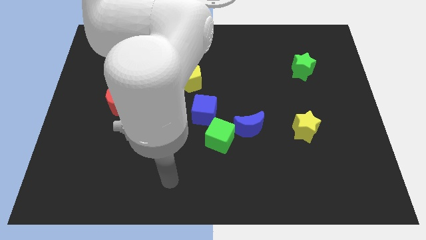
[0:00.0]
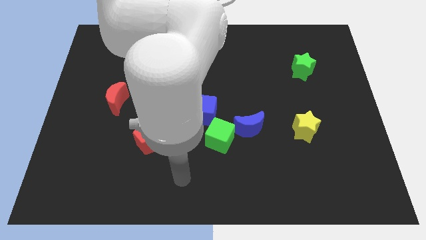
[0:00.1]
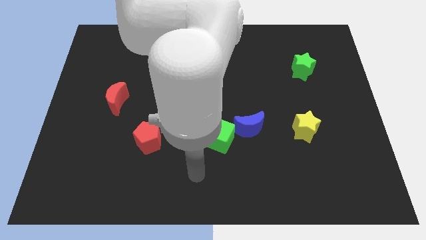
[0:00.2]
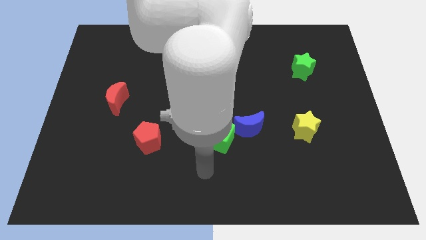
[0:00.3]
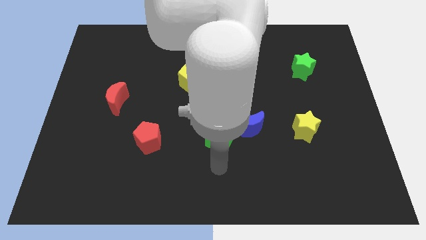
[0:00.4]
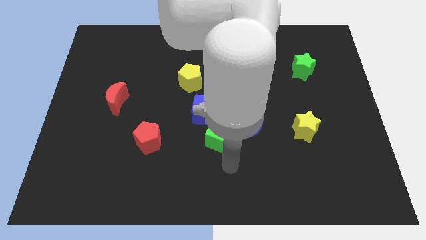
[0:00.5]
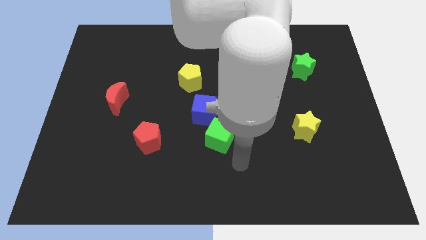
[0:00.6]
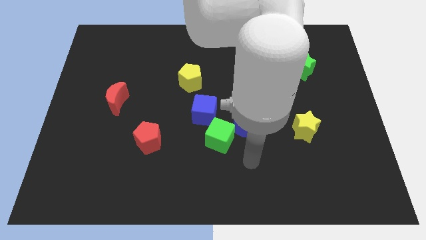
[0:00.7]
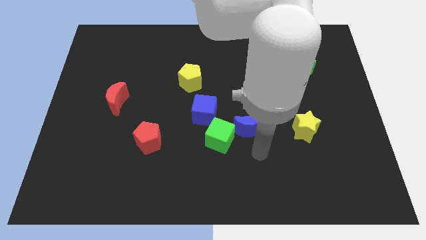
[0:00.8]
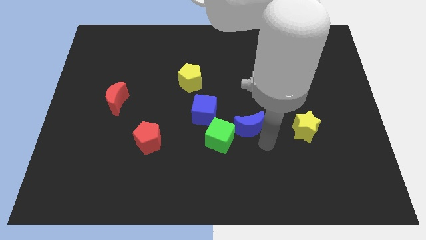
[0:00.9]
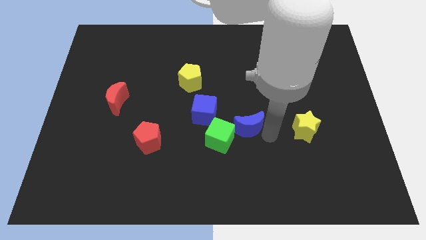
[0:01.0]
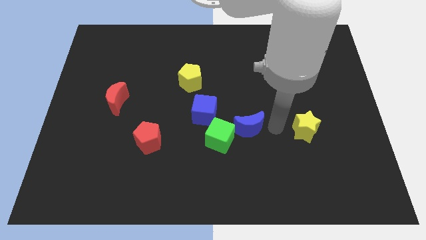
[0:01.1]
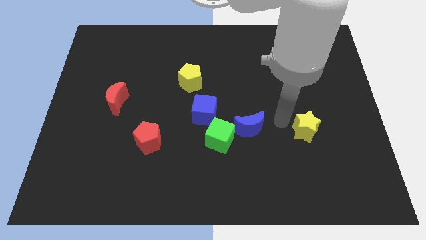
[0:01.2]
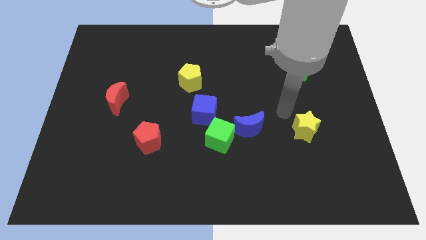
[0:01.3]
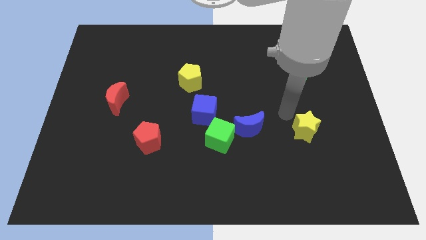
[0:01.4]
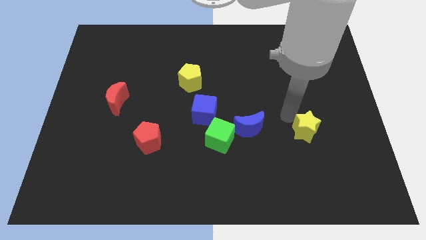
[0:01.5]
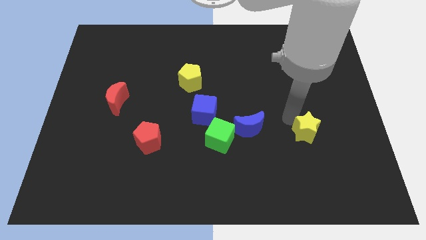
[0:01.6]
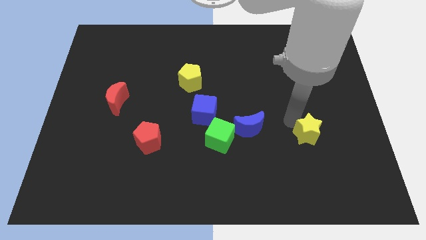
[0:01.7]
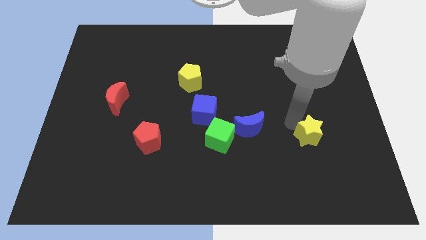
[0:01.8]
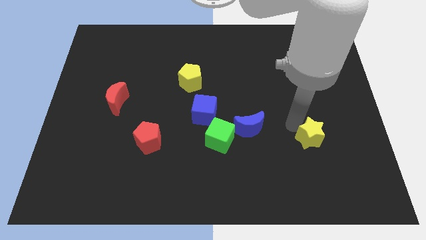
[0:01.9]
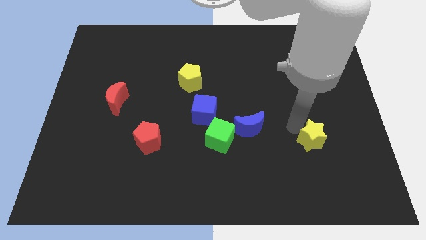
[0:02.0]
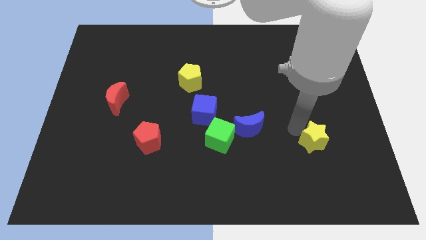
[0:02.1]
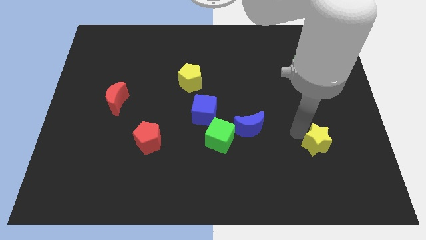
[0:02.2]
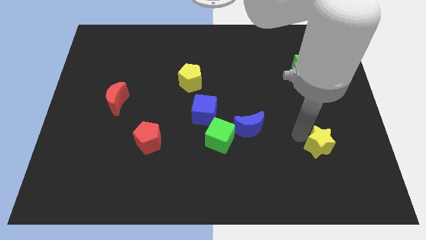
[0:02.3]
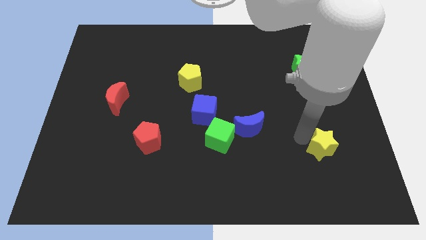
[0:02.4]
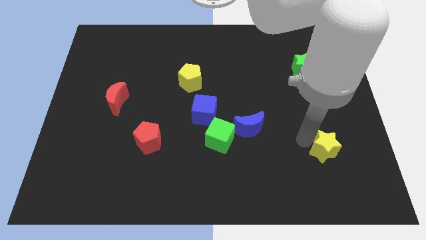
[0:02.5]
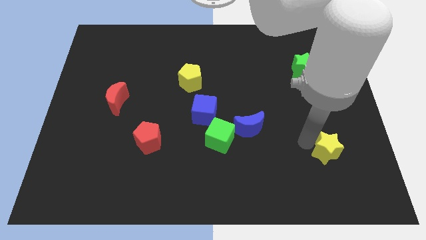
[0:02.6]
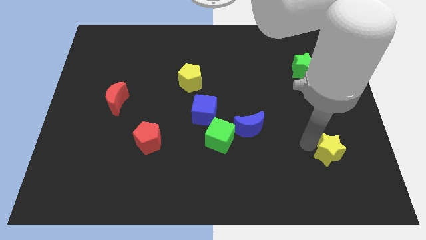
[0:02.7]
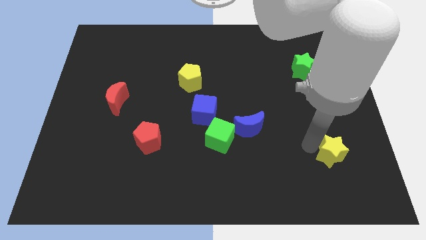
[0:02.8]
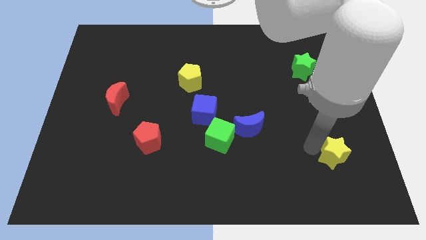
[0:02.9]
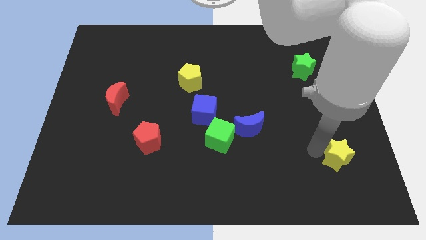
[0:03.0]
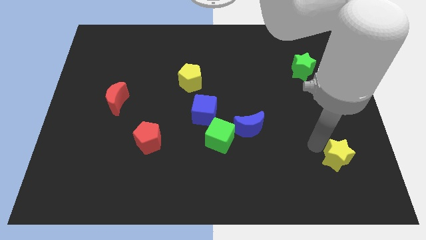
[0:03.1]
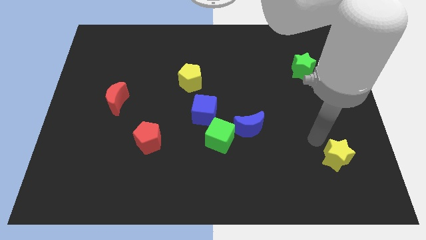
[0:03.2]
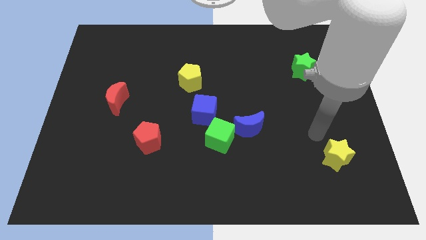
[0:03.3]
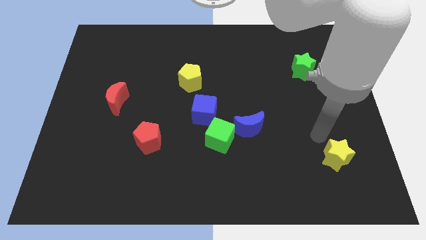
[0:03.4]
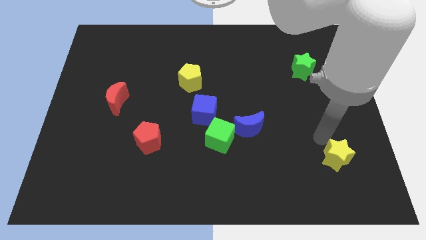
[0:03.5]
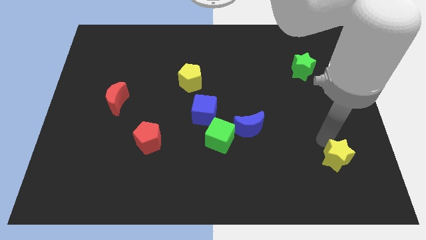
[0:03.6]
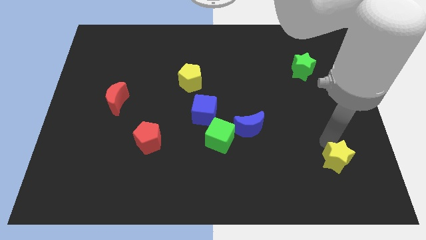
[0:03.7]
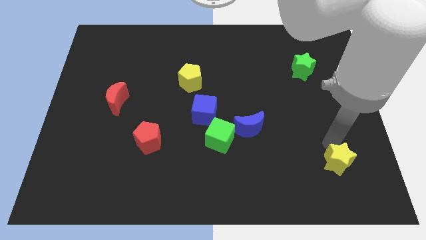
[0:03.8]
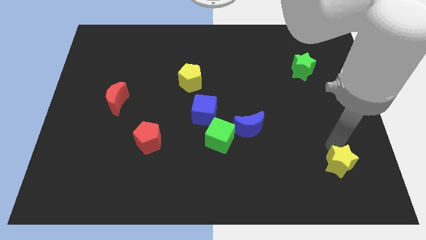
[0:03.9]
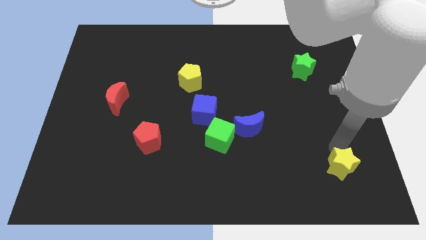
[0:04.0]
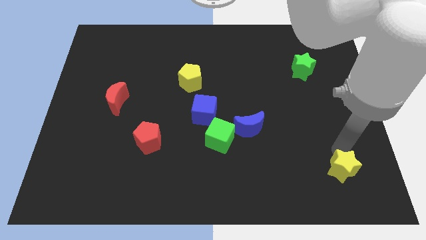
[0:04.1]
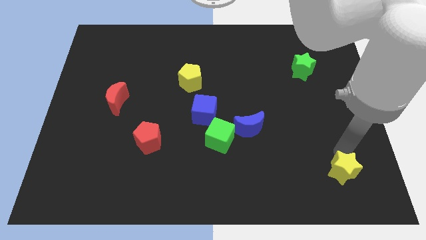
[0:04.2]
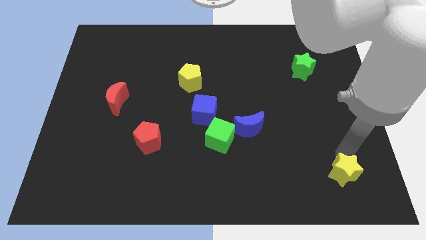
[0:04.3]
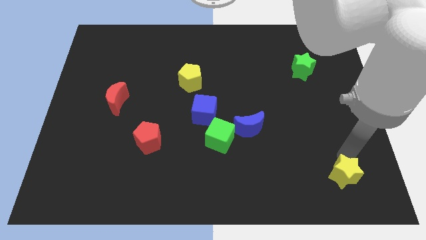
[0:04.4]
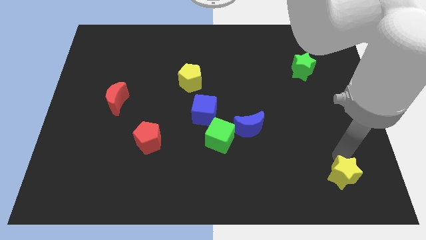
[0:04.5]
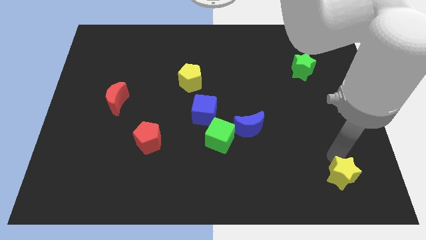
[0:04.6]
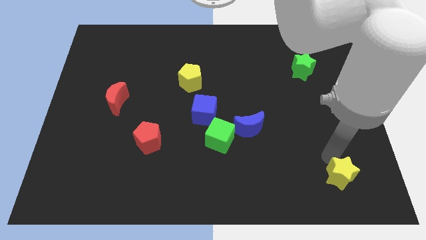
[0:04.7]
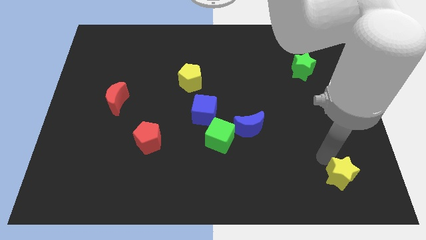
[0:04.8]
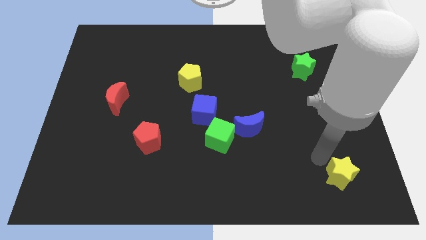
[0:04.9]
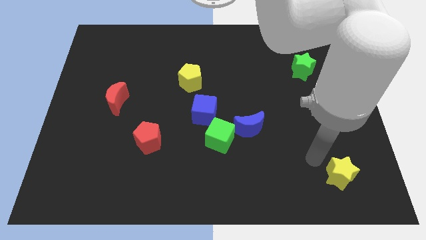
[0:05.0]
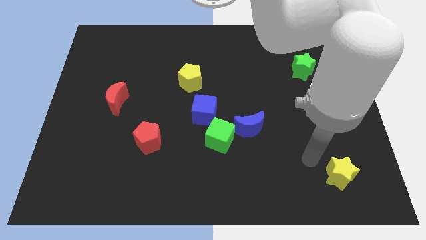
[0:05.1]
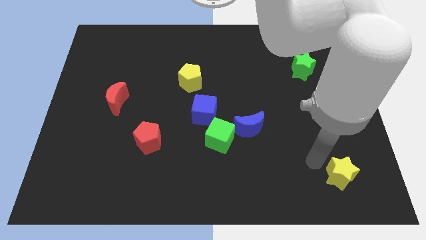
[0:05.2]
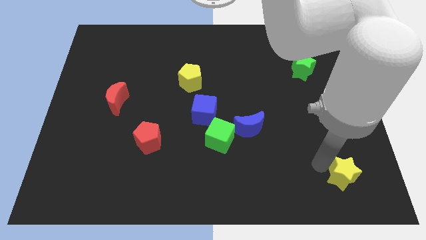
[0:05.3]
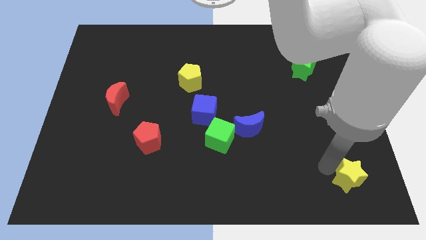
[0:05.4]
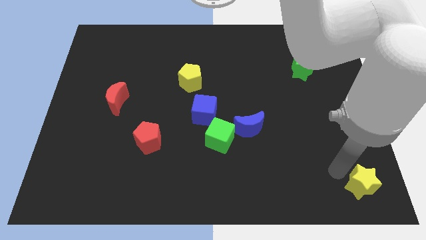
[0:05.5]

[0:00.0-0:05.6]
put the yellow star to the bottom right of the board

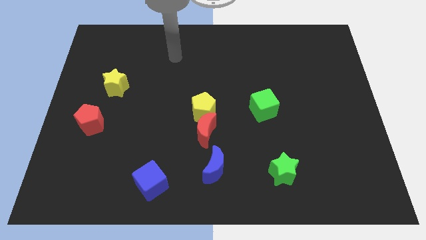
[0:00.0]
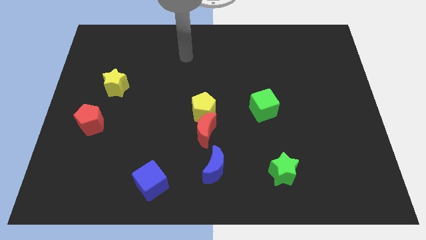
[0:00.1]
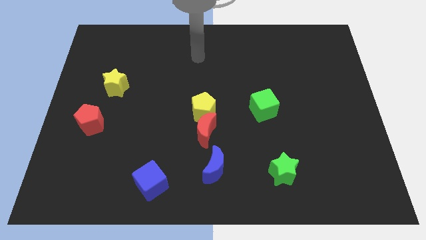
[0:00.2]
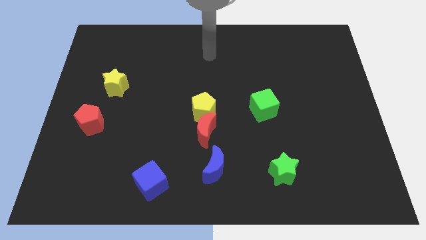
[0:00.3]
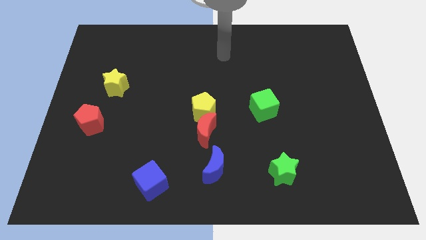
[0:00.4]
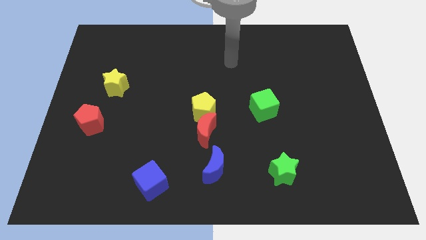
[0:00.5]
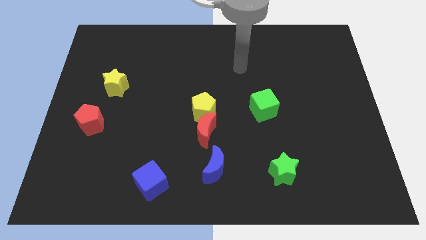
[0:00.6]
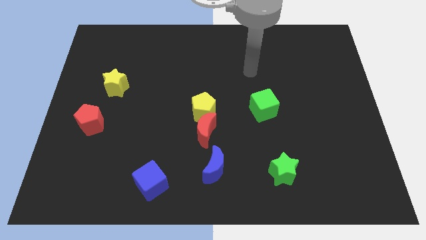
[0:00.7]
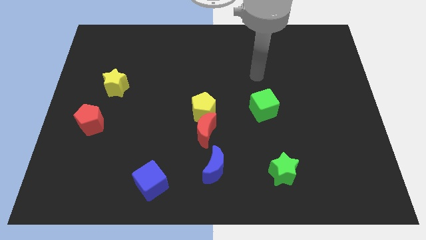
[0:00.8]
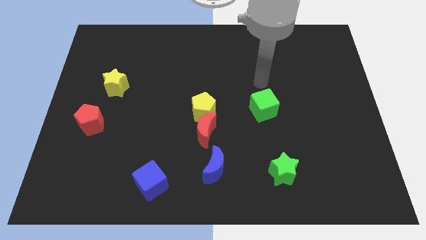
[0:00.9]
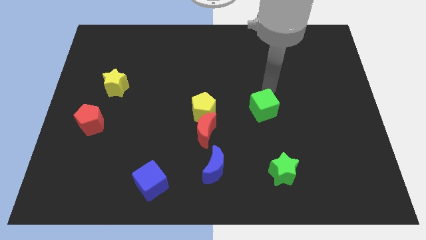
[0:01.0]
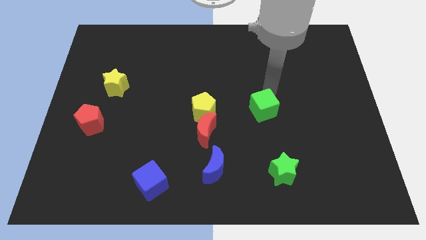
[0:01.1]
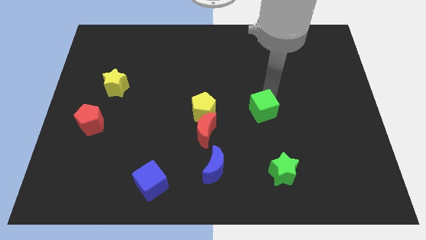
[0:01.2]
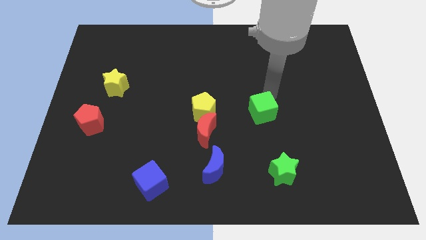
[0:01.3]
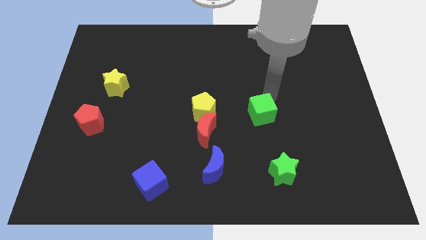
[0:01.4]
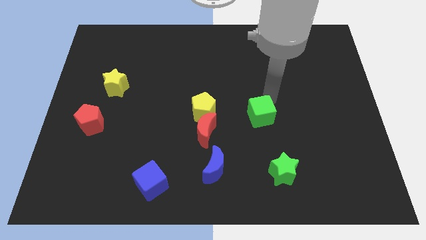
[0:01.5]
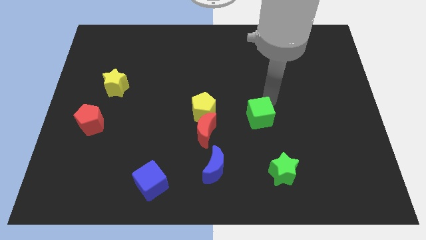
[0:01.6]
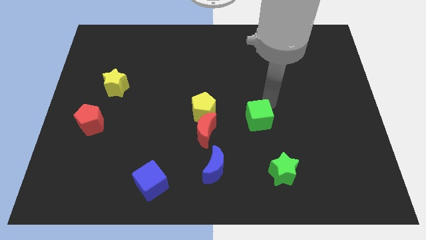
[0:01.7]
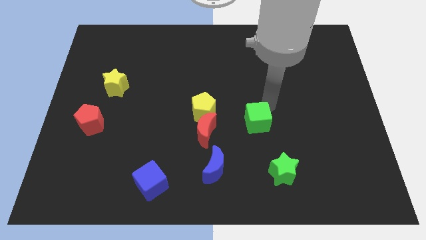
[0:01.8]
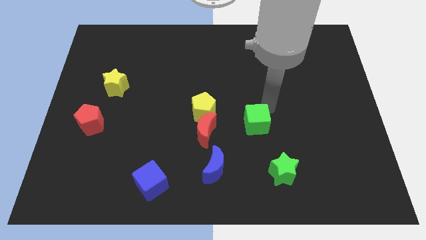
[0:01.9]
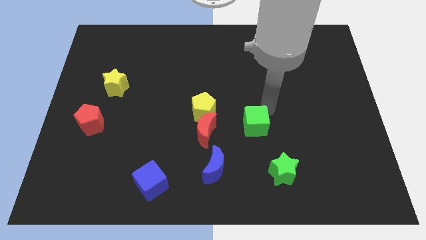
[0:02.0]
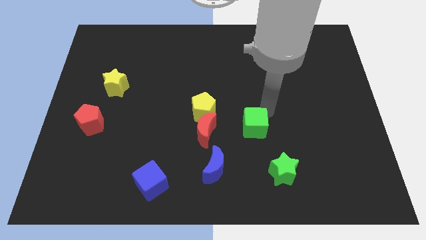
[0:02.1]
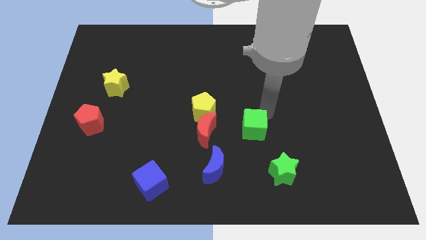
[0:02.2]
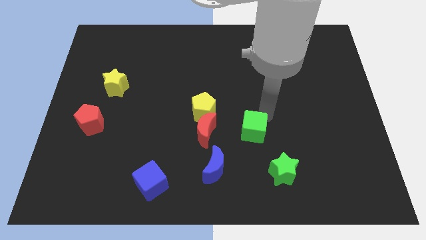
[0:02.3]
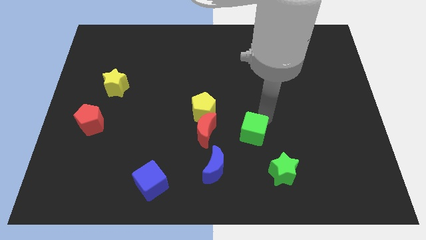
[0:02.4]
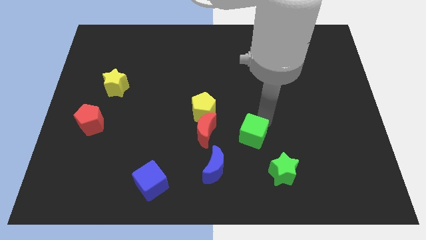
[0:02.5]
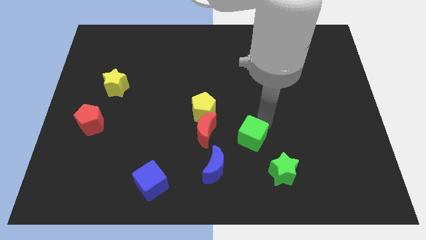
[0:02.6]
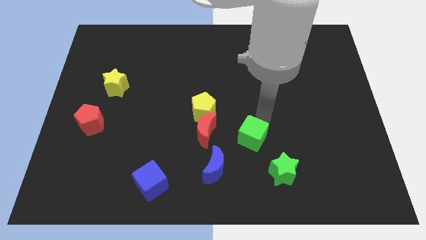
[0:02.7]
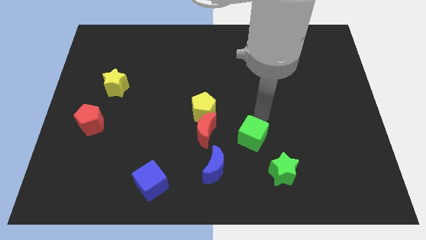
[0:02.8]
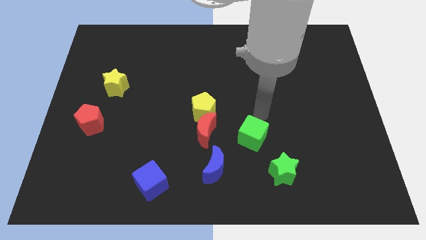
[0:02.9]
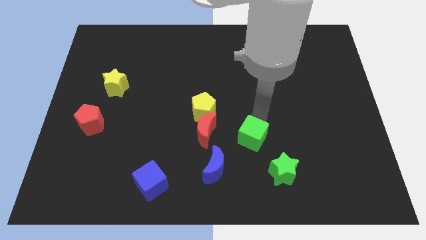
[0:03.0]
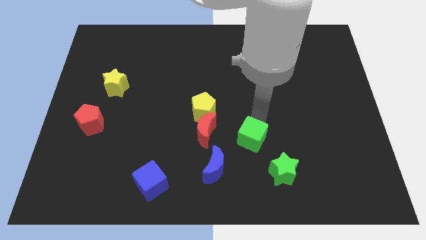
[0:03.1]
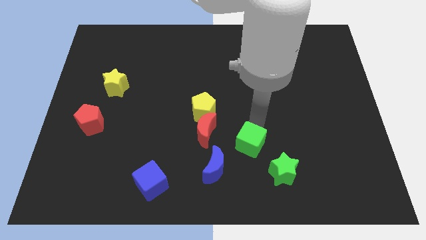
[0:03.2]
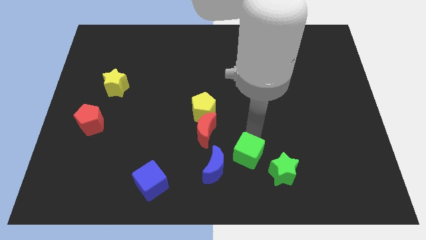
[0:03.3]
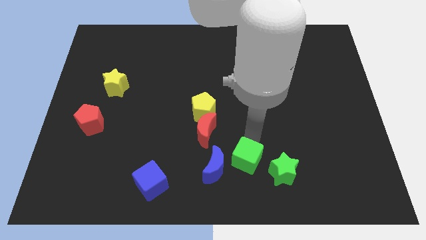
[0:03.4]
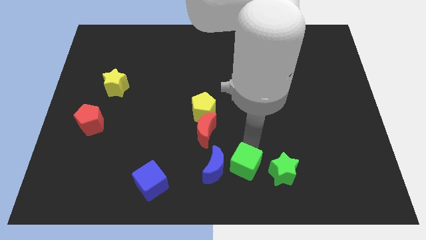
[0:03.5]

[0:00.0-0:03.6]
move the green cube to the bottom side
